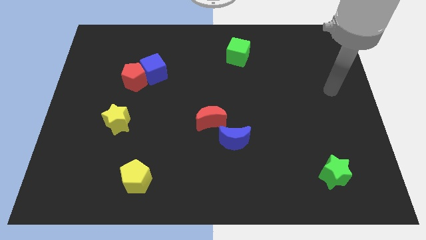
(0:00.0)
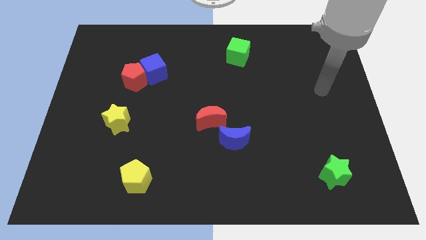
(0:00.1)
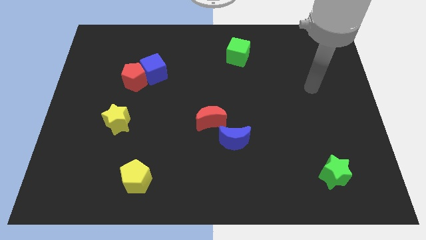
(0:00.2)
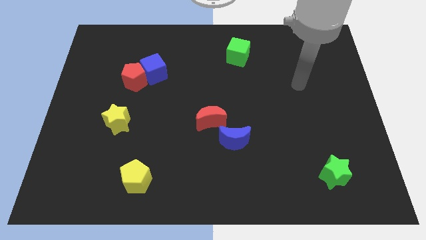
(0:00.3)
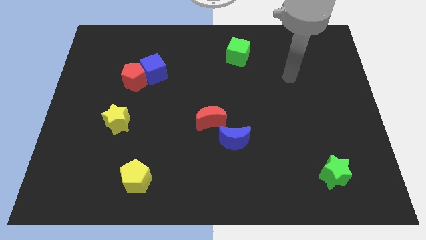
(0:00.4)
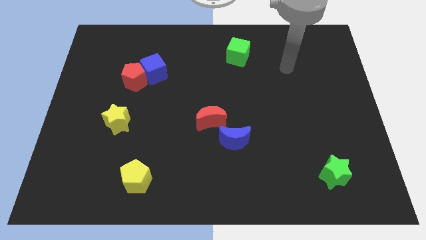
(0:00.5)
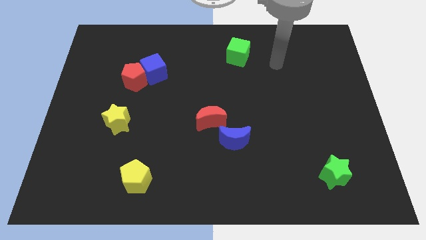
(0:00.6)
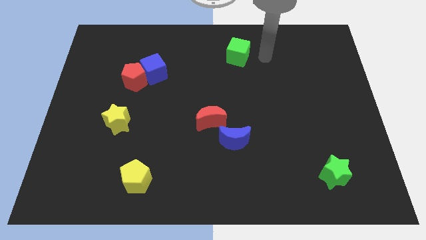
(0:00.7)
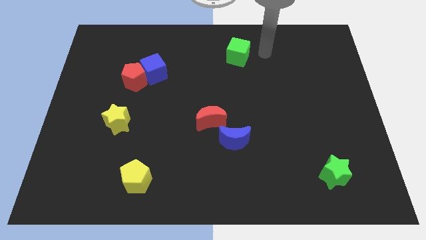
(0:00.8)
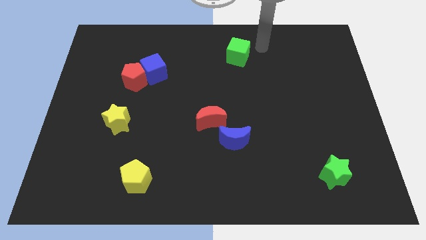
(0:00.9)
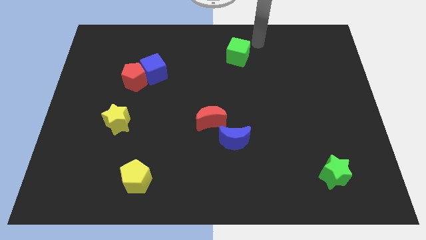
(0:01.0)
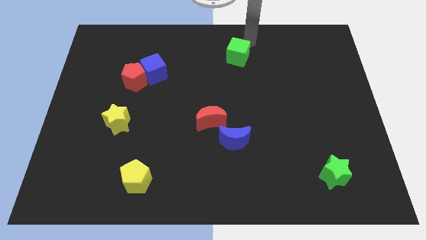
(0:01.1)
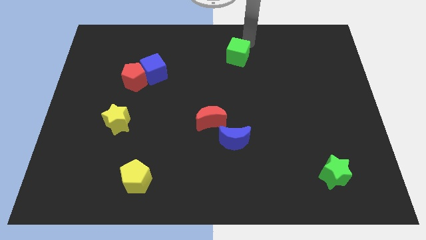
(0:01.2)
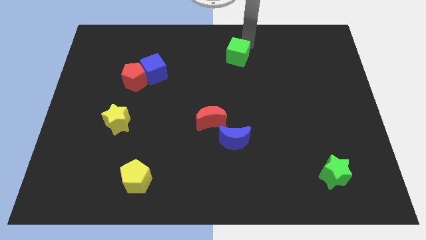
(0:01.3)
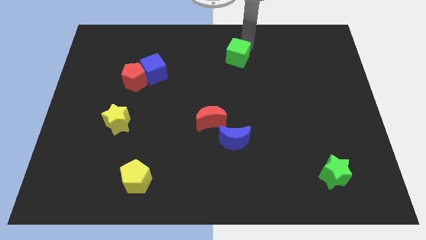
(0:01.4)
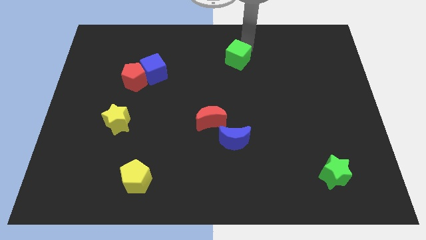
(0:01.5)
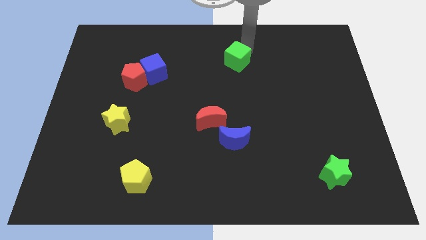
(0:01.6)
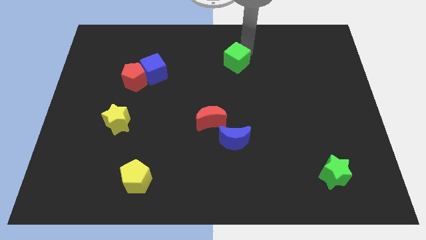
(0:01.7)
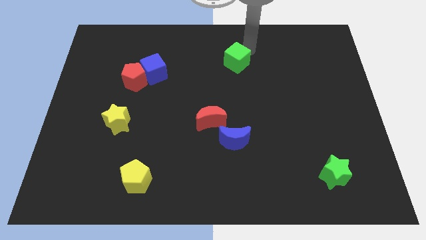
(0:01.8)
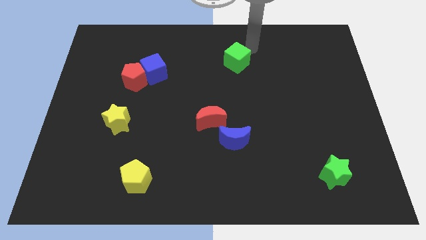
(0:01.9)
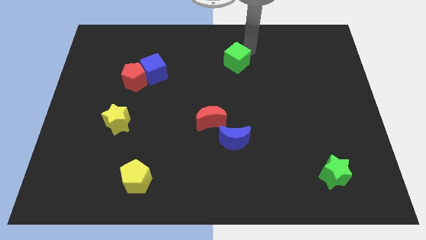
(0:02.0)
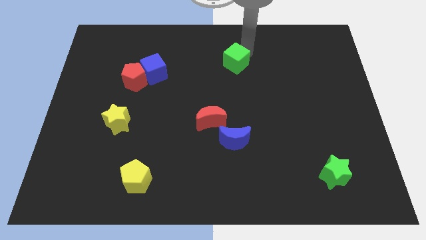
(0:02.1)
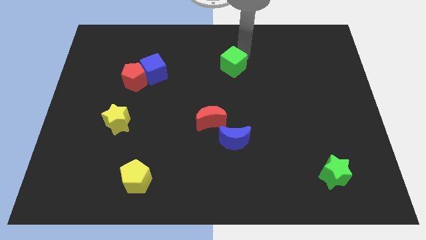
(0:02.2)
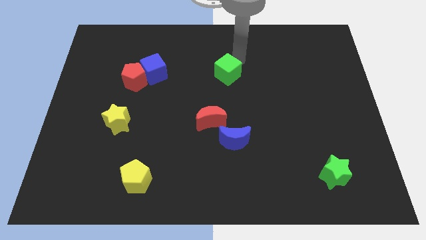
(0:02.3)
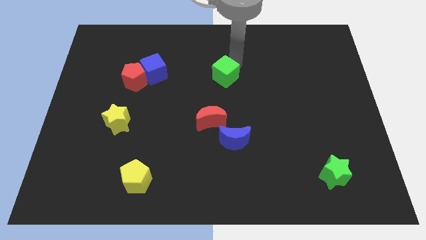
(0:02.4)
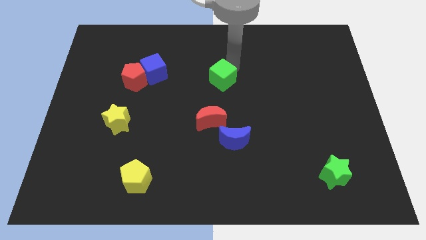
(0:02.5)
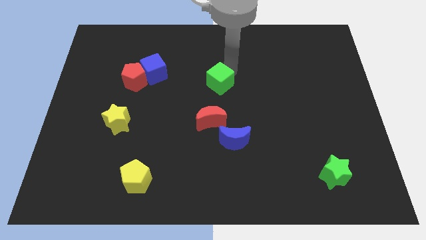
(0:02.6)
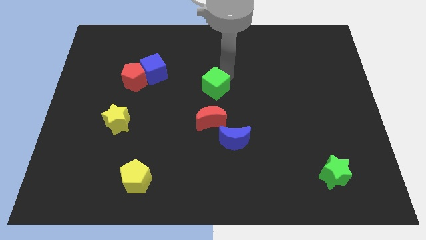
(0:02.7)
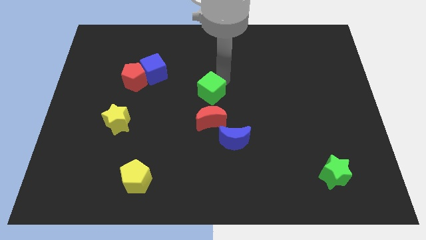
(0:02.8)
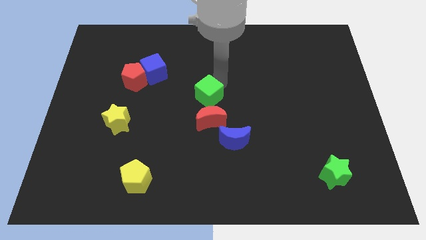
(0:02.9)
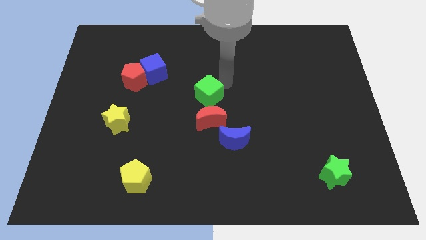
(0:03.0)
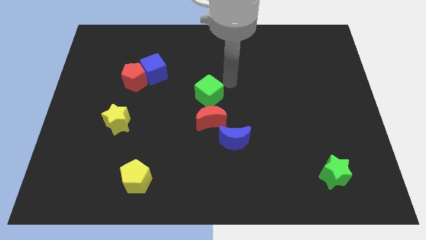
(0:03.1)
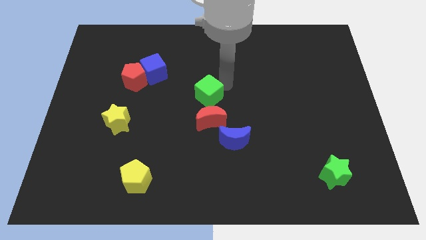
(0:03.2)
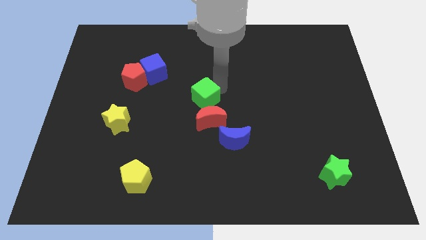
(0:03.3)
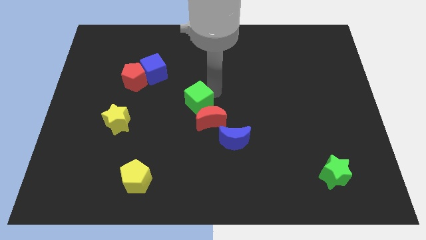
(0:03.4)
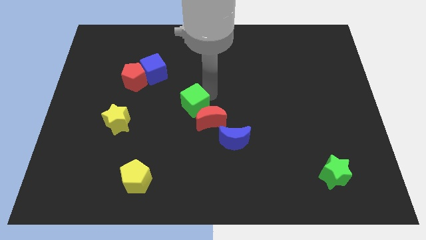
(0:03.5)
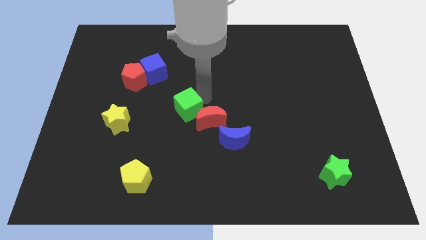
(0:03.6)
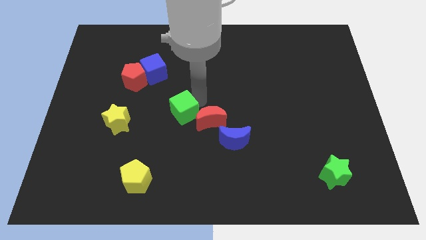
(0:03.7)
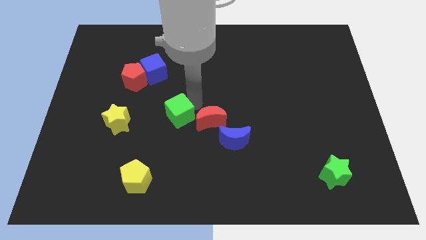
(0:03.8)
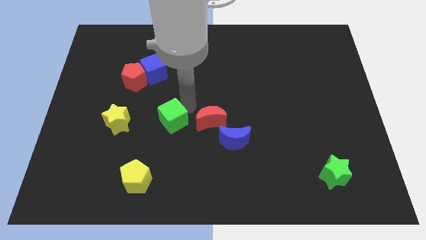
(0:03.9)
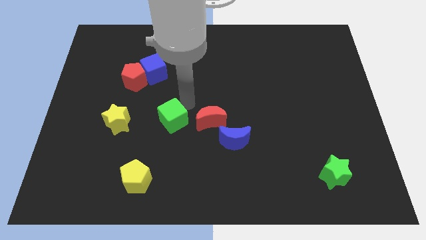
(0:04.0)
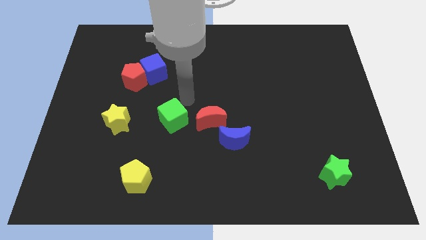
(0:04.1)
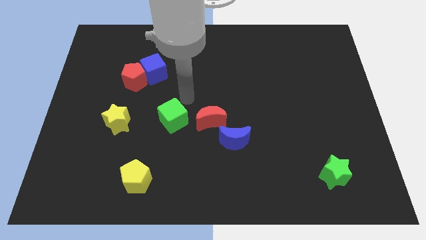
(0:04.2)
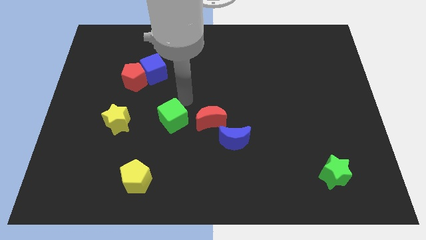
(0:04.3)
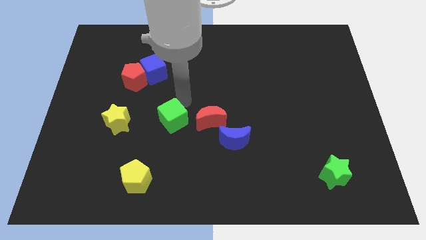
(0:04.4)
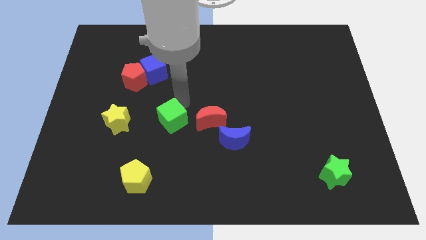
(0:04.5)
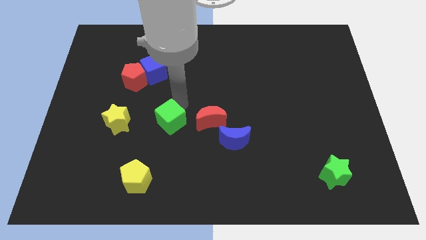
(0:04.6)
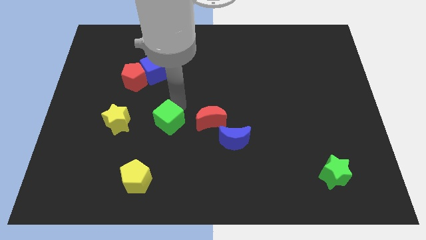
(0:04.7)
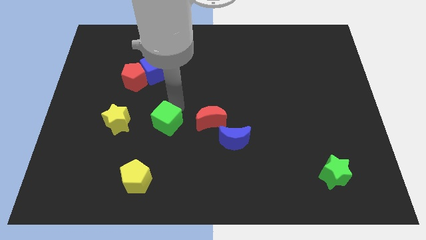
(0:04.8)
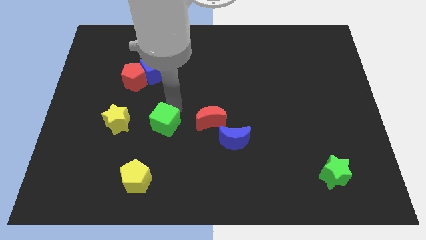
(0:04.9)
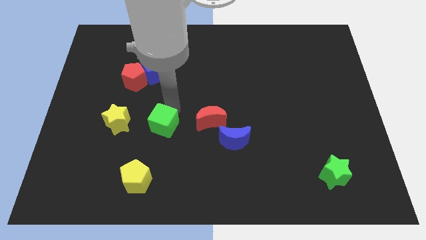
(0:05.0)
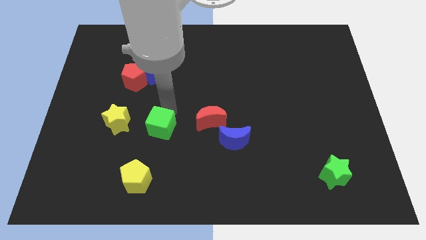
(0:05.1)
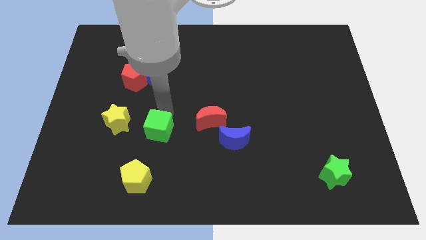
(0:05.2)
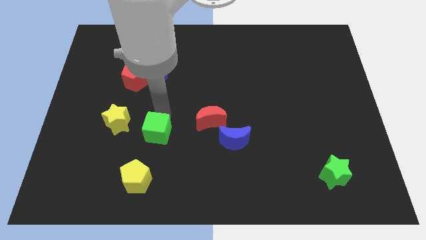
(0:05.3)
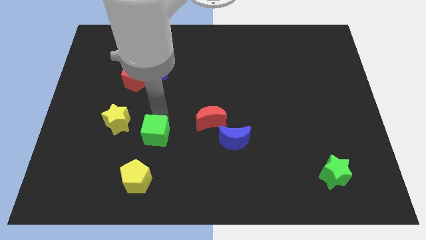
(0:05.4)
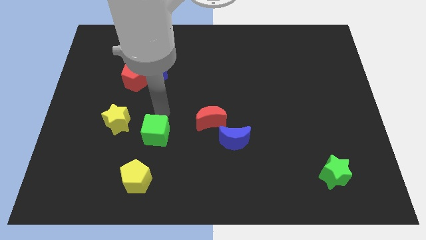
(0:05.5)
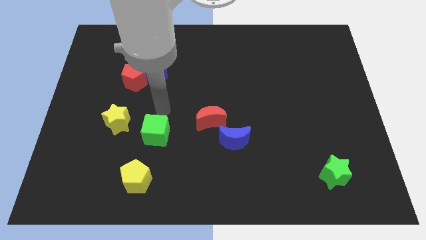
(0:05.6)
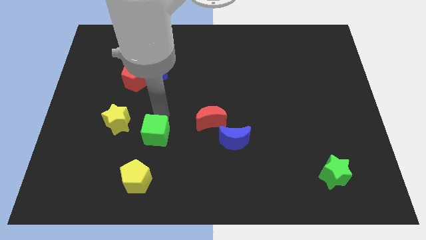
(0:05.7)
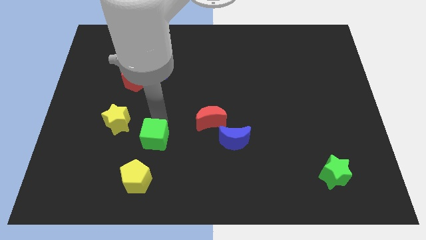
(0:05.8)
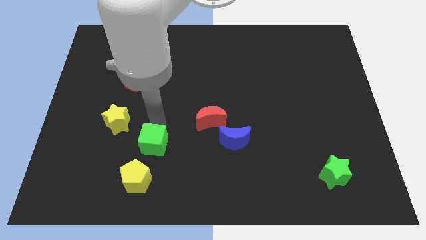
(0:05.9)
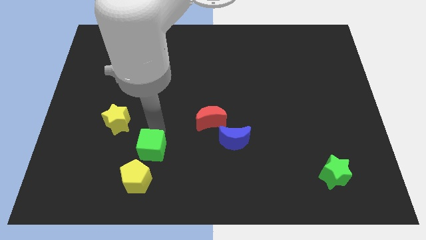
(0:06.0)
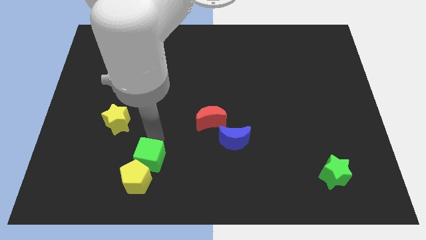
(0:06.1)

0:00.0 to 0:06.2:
push the green cube towards the yellow pentagon

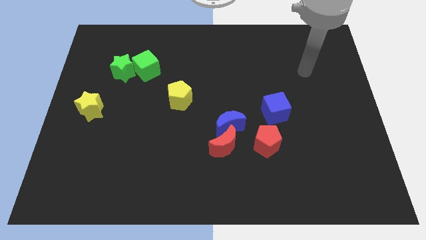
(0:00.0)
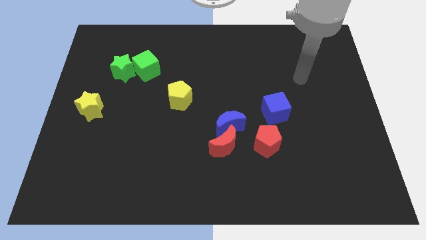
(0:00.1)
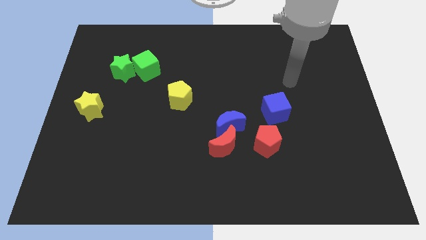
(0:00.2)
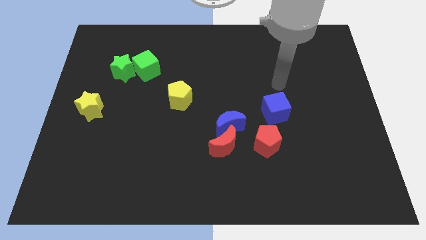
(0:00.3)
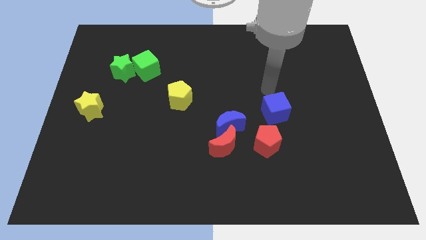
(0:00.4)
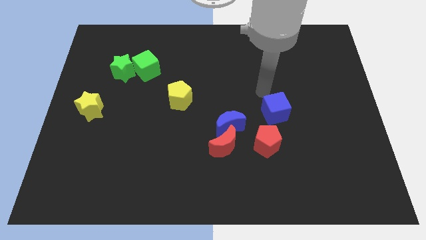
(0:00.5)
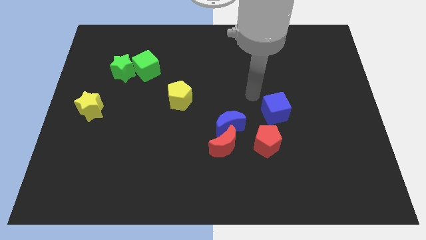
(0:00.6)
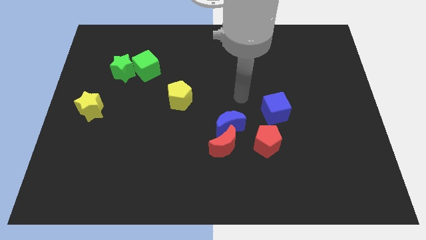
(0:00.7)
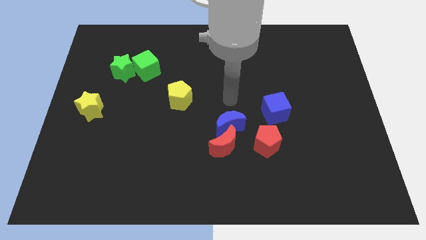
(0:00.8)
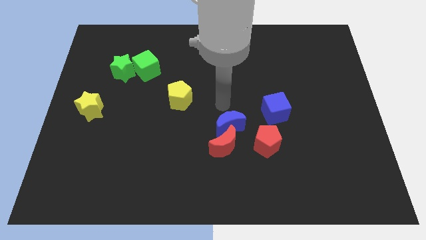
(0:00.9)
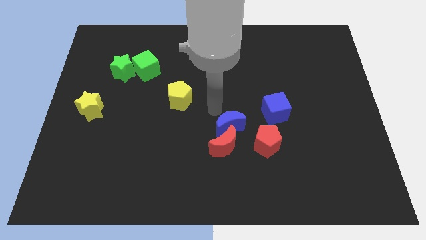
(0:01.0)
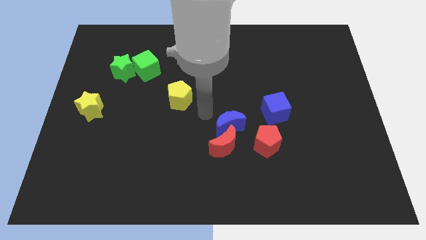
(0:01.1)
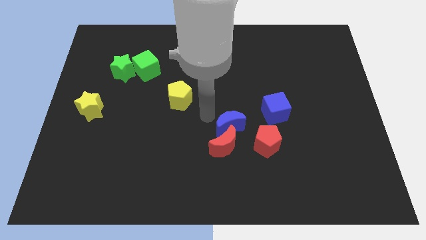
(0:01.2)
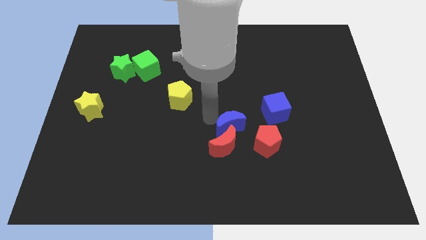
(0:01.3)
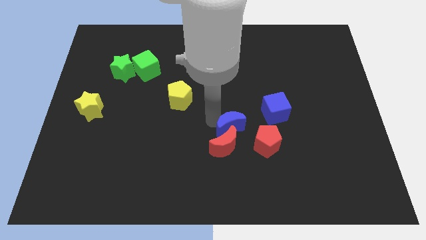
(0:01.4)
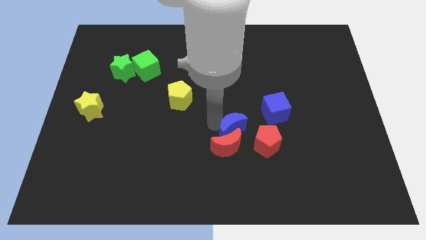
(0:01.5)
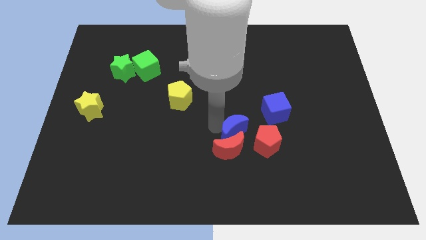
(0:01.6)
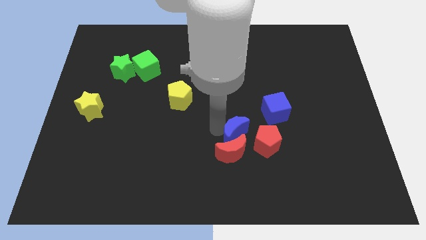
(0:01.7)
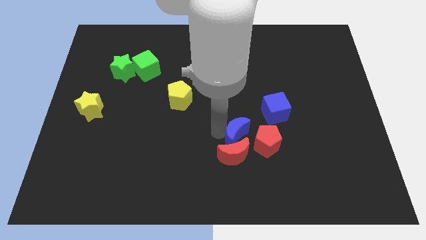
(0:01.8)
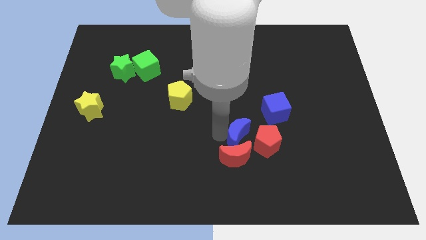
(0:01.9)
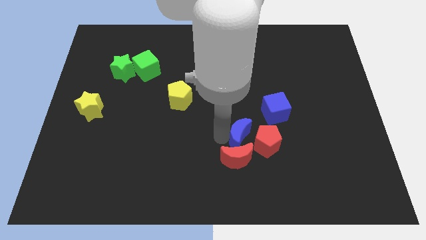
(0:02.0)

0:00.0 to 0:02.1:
slide the blue moon next to the red pentagon
